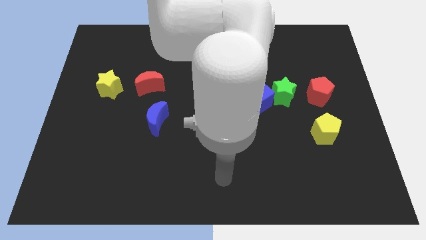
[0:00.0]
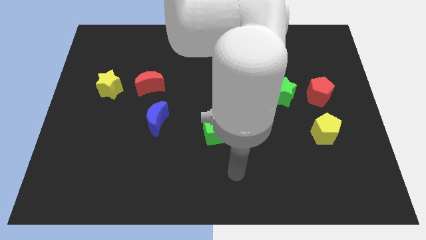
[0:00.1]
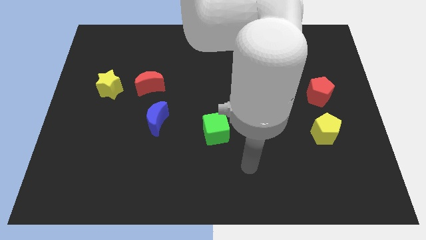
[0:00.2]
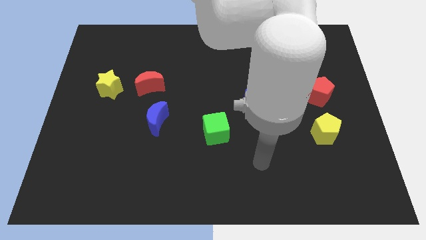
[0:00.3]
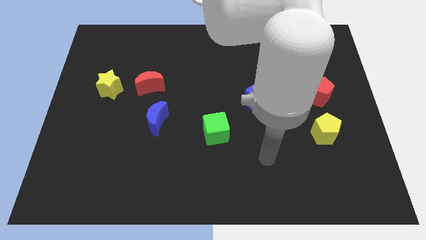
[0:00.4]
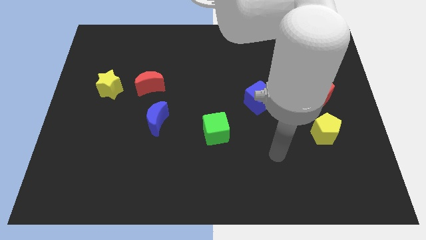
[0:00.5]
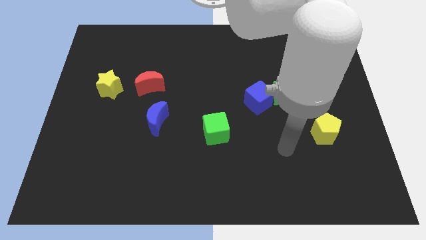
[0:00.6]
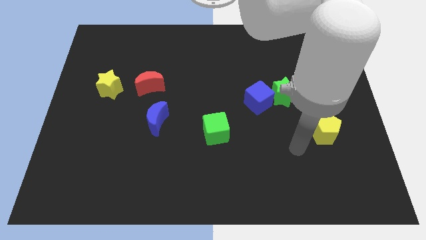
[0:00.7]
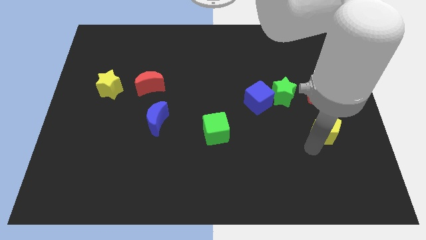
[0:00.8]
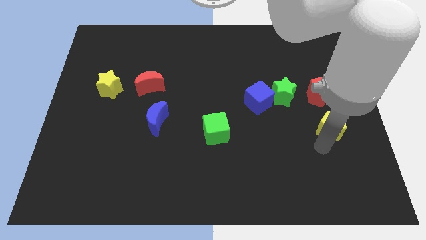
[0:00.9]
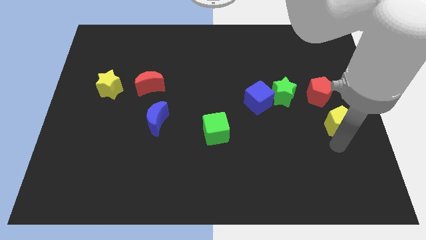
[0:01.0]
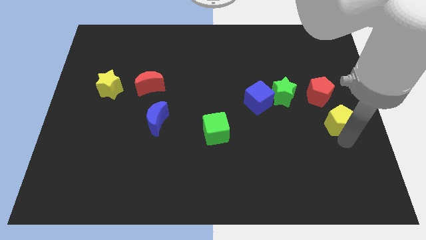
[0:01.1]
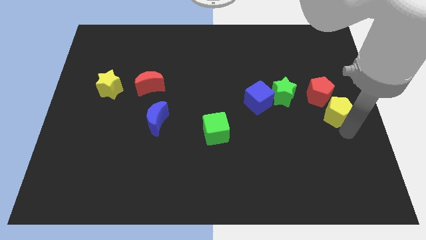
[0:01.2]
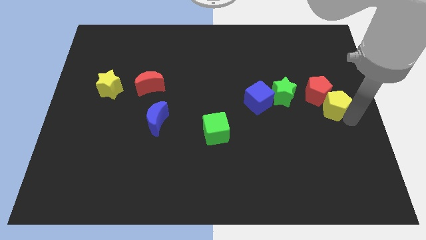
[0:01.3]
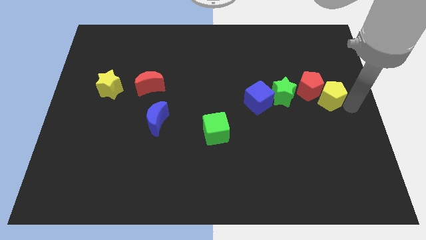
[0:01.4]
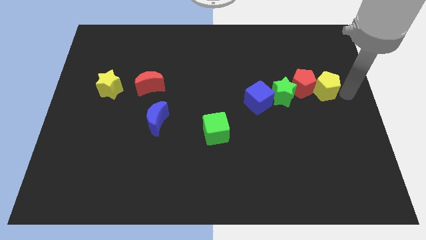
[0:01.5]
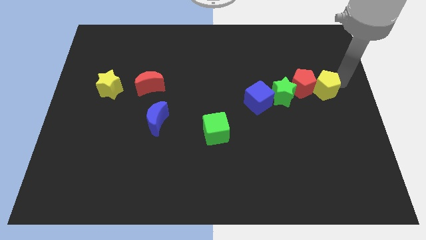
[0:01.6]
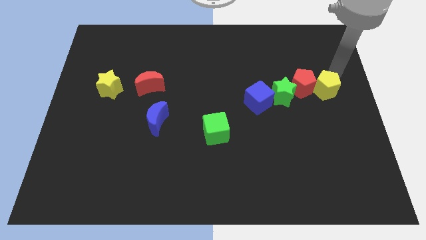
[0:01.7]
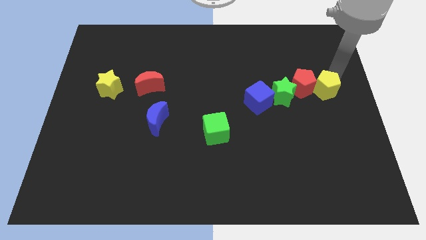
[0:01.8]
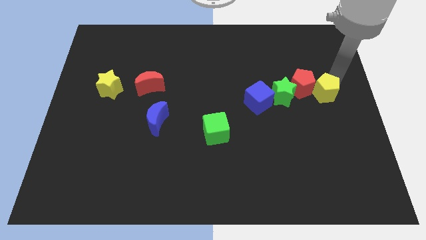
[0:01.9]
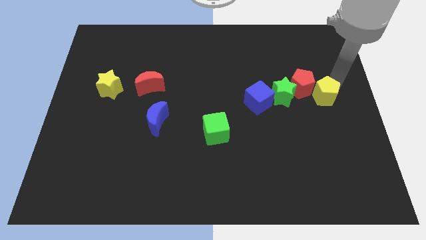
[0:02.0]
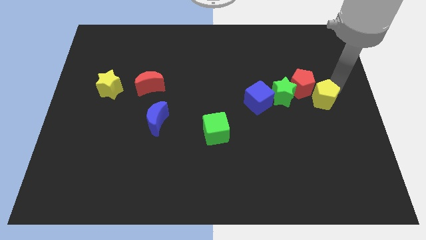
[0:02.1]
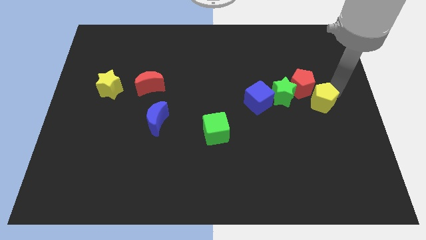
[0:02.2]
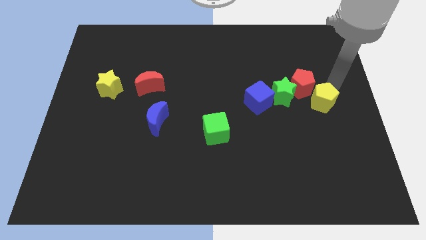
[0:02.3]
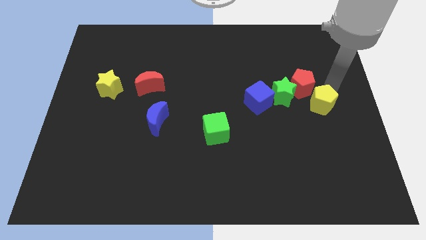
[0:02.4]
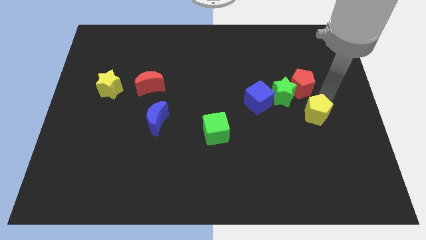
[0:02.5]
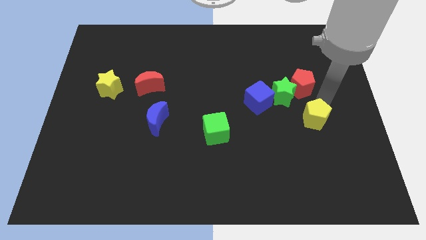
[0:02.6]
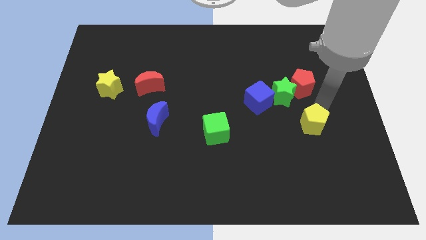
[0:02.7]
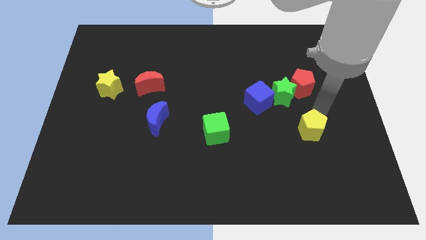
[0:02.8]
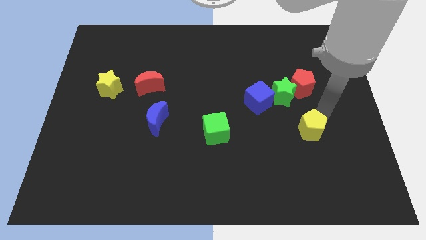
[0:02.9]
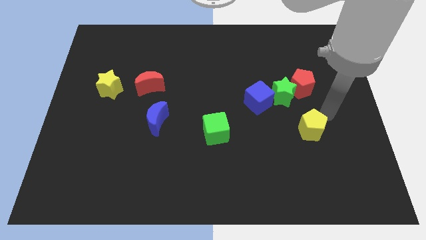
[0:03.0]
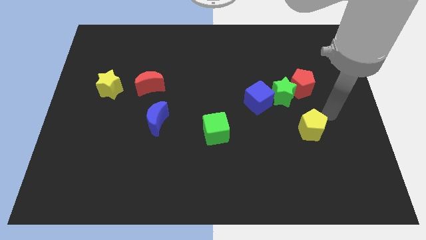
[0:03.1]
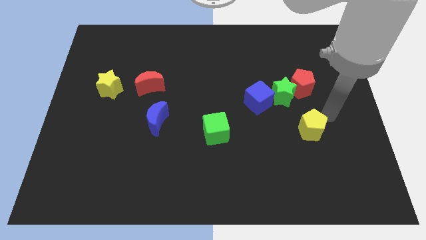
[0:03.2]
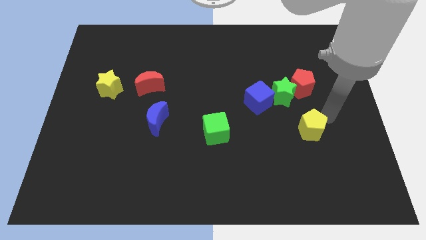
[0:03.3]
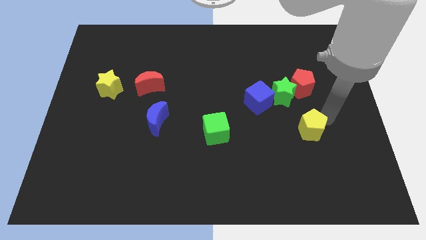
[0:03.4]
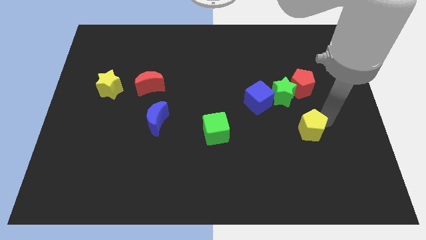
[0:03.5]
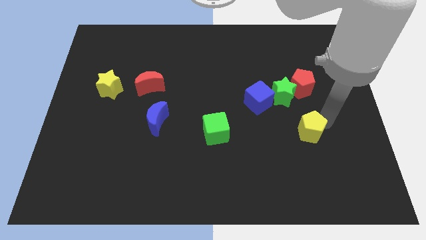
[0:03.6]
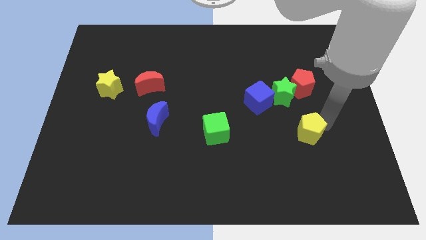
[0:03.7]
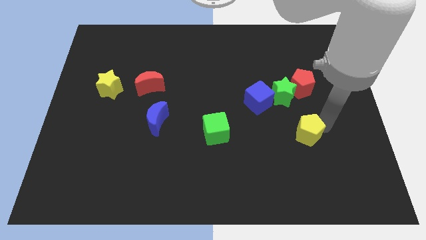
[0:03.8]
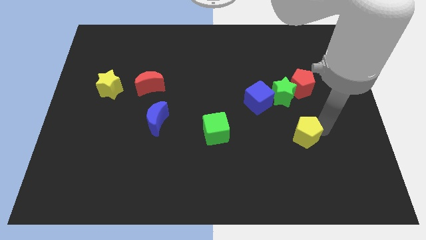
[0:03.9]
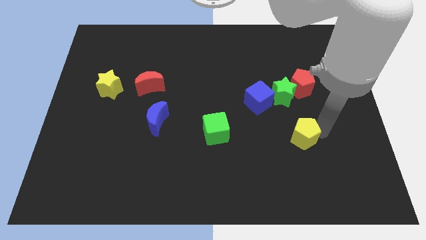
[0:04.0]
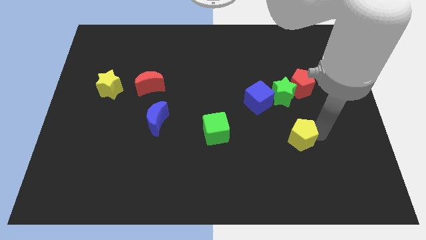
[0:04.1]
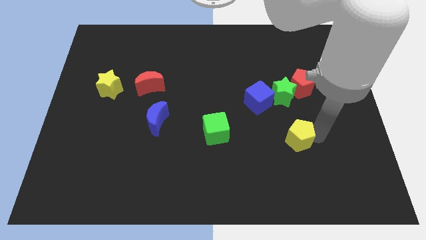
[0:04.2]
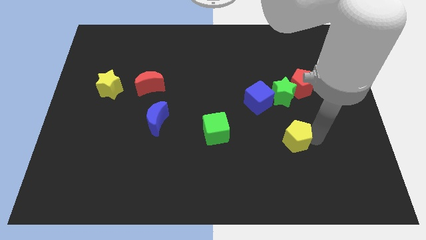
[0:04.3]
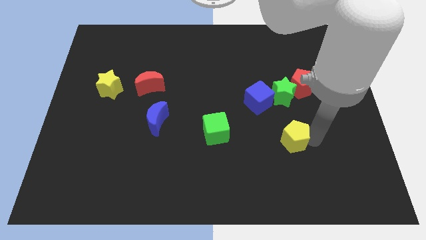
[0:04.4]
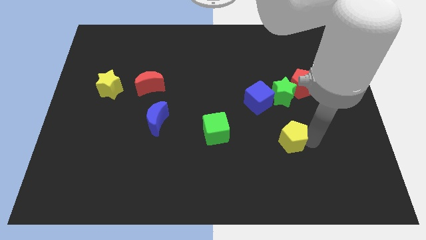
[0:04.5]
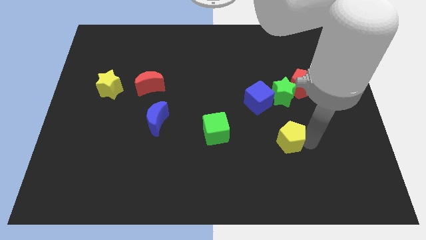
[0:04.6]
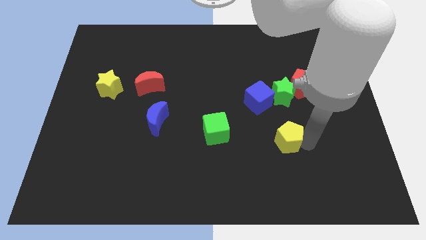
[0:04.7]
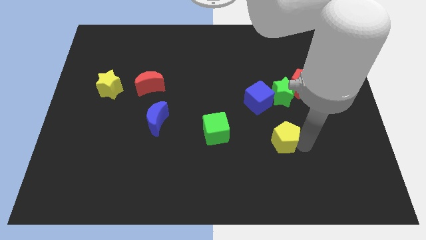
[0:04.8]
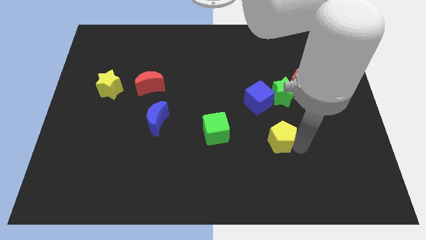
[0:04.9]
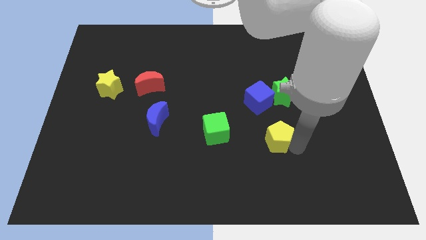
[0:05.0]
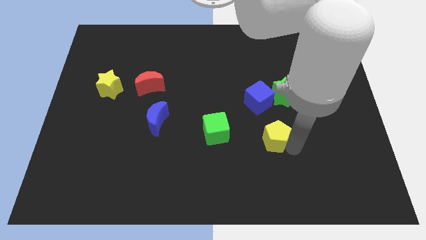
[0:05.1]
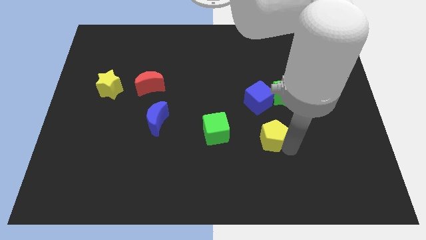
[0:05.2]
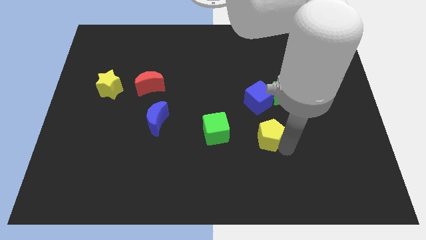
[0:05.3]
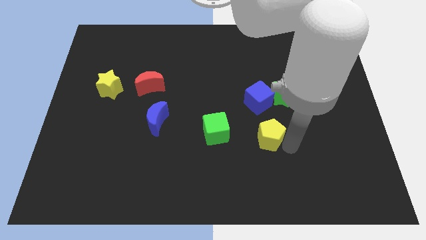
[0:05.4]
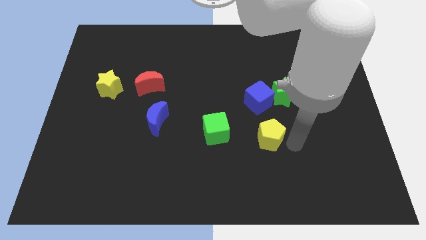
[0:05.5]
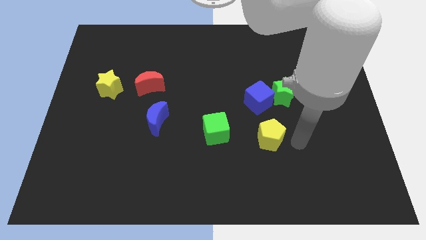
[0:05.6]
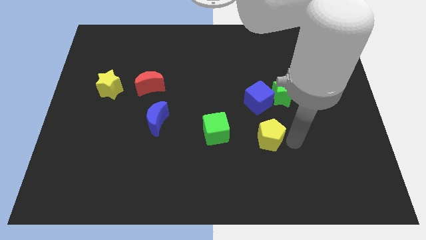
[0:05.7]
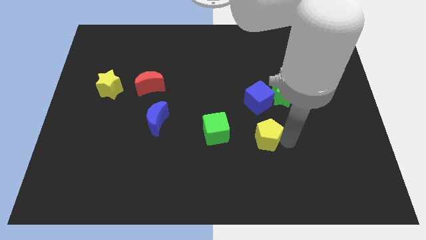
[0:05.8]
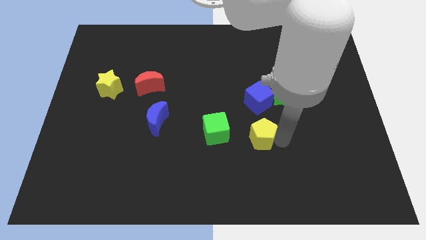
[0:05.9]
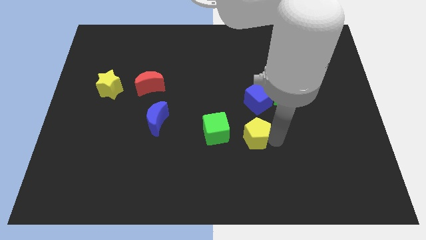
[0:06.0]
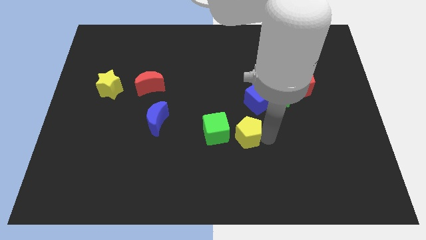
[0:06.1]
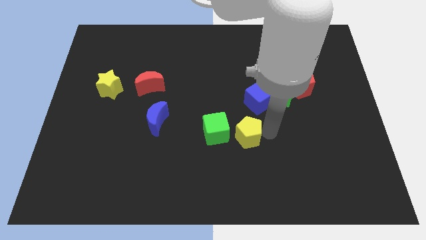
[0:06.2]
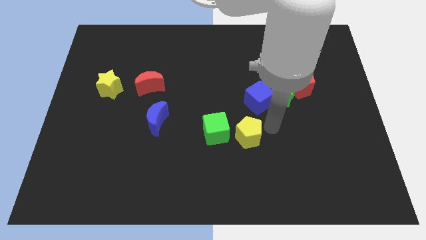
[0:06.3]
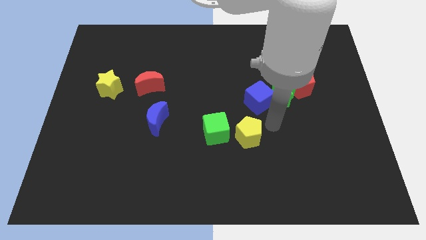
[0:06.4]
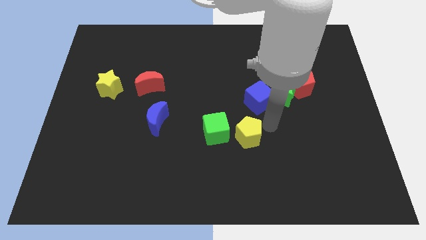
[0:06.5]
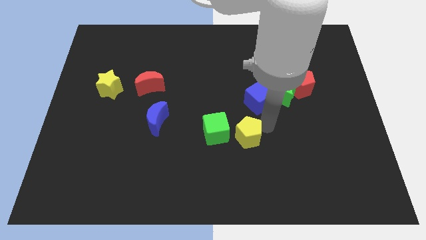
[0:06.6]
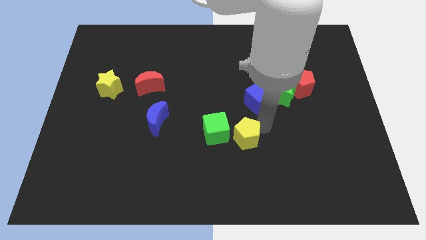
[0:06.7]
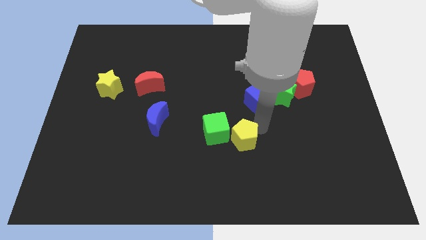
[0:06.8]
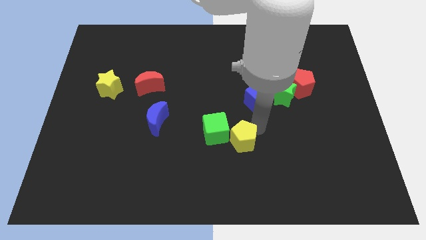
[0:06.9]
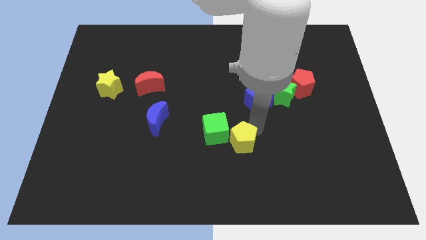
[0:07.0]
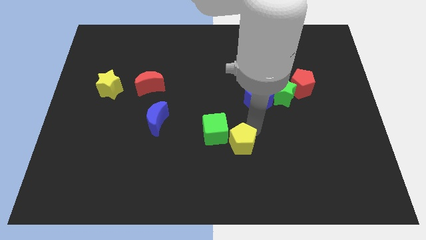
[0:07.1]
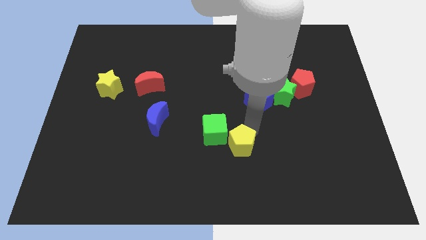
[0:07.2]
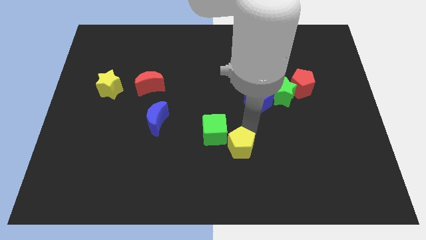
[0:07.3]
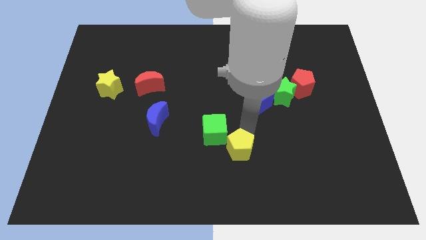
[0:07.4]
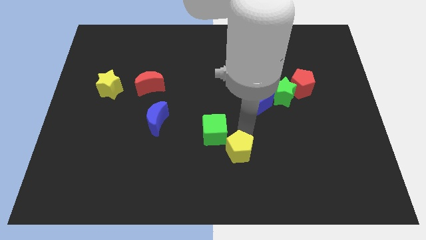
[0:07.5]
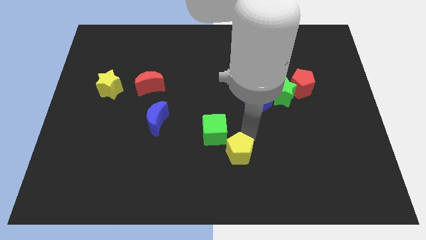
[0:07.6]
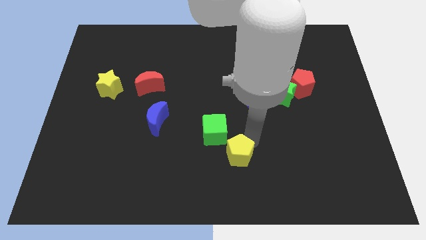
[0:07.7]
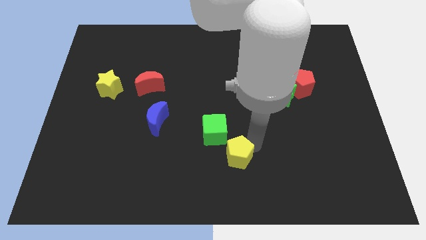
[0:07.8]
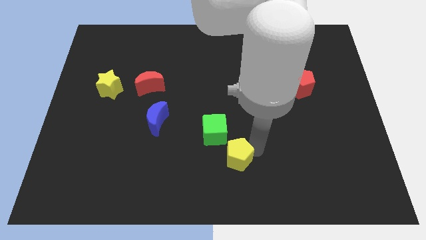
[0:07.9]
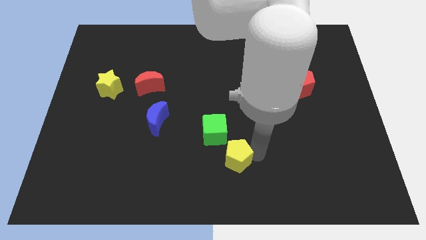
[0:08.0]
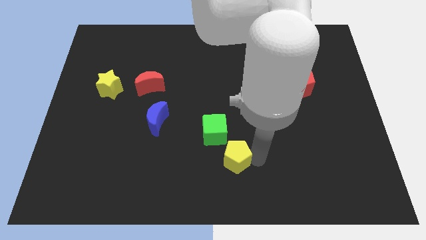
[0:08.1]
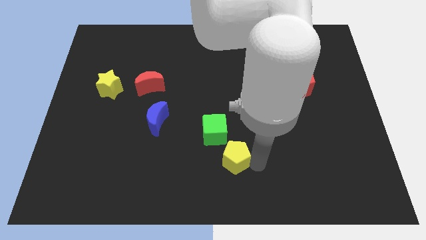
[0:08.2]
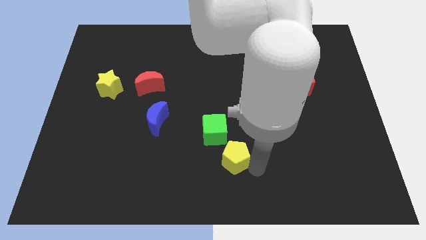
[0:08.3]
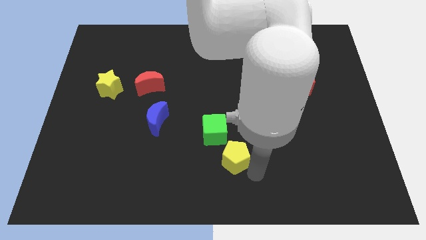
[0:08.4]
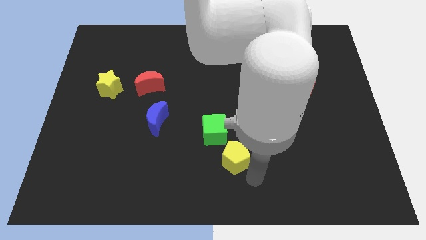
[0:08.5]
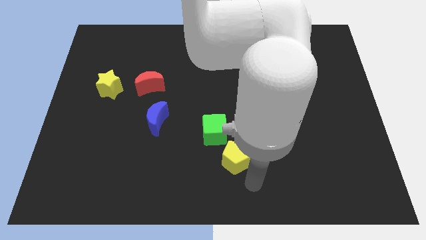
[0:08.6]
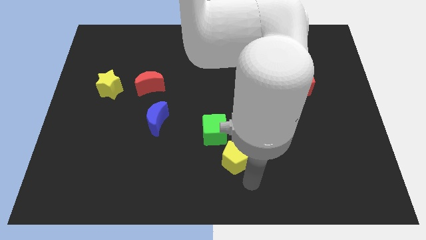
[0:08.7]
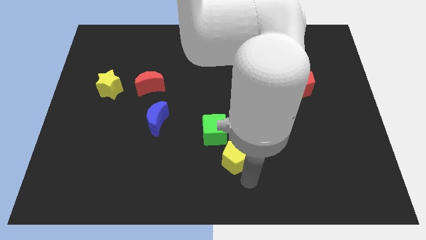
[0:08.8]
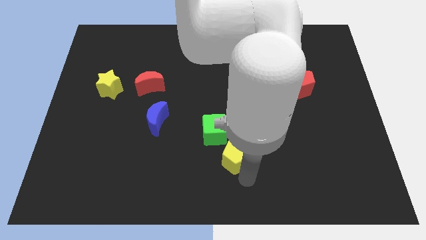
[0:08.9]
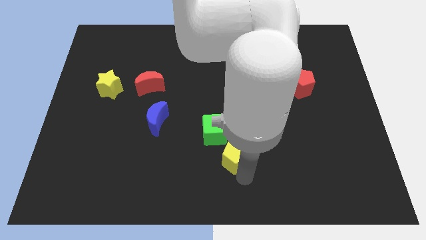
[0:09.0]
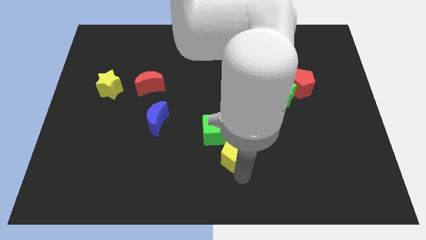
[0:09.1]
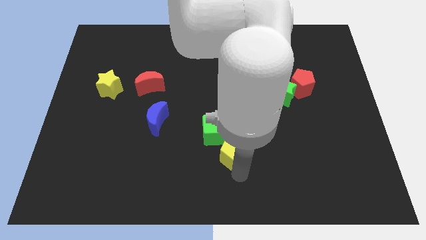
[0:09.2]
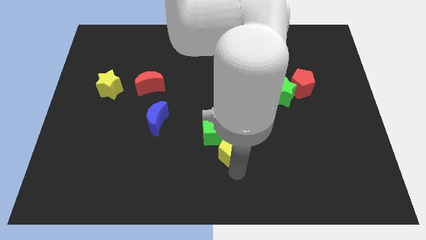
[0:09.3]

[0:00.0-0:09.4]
slide the yellow pentagon to the left
